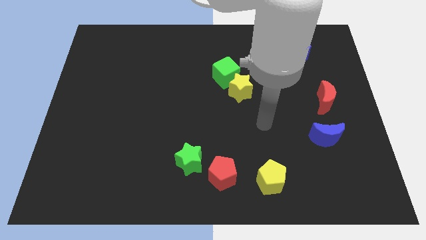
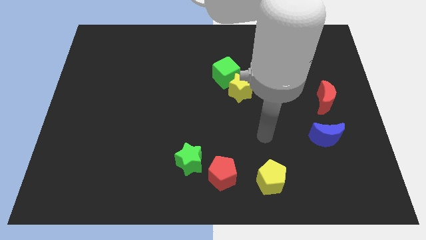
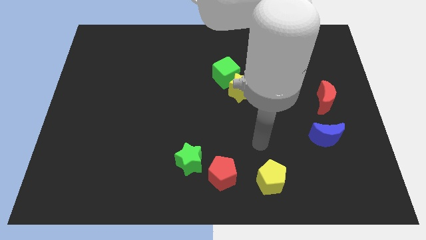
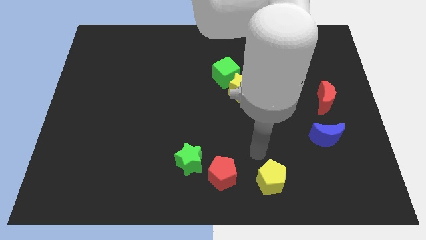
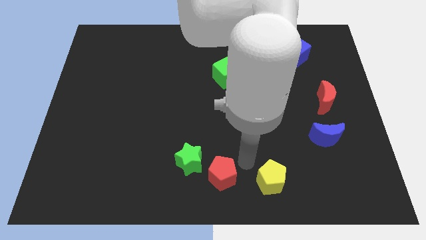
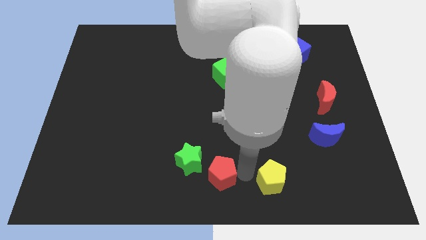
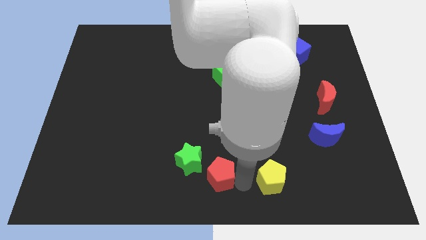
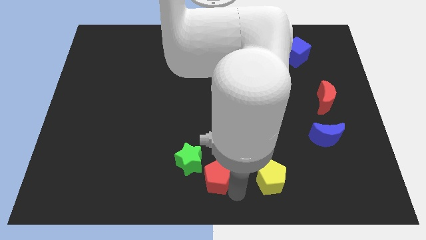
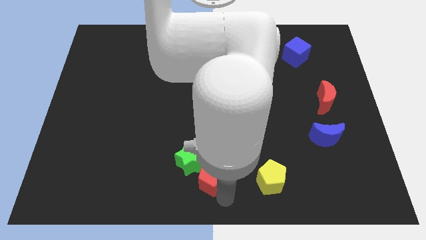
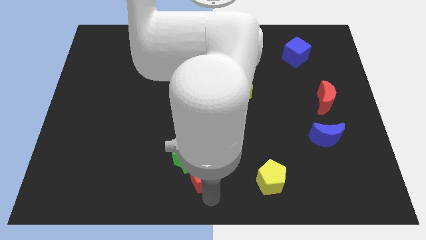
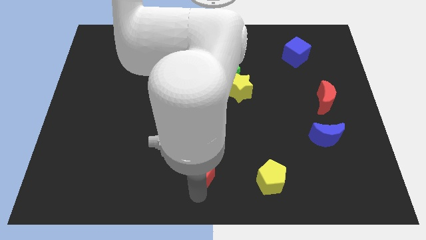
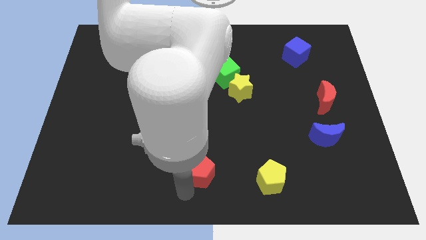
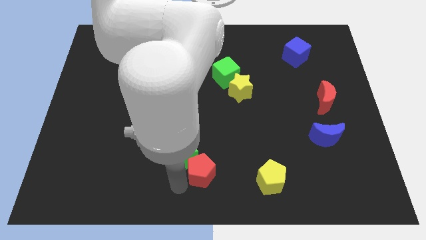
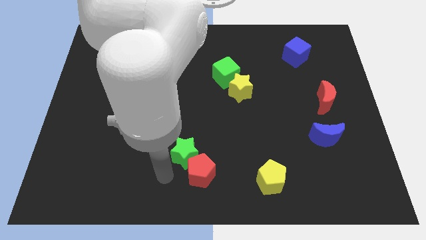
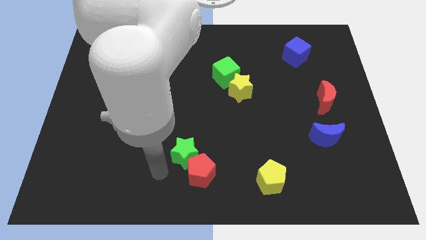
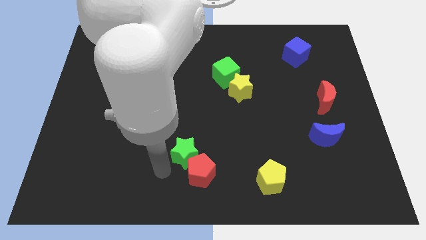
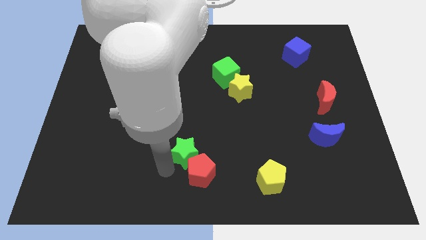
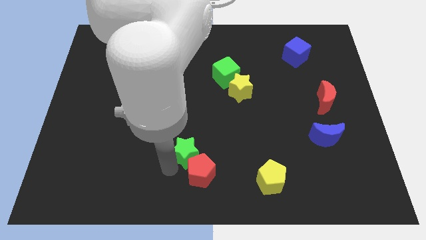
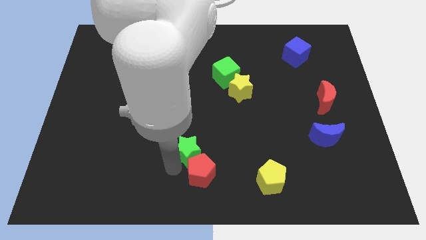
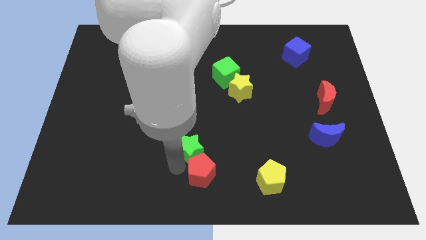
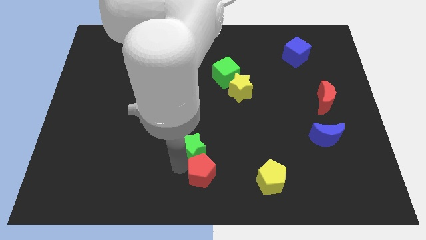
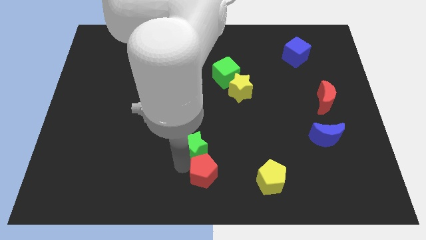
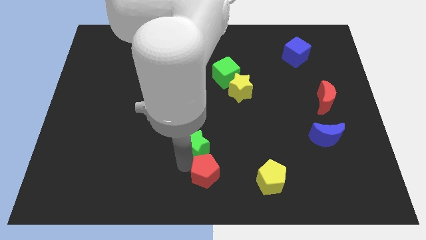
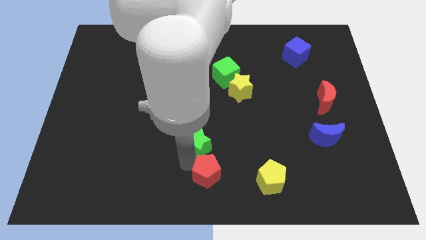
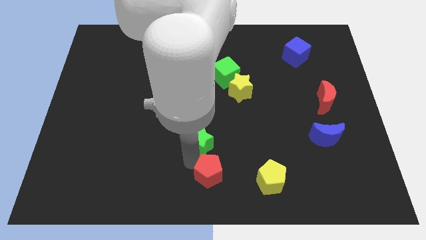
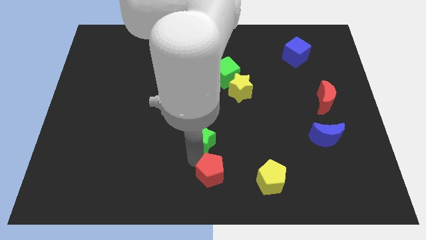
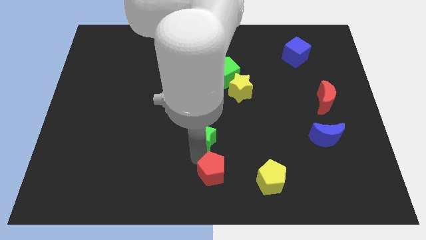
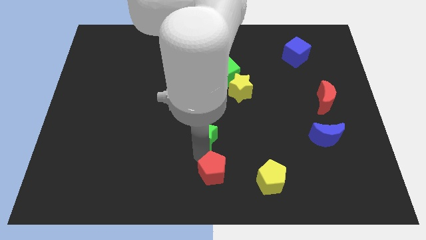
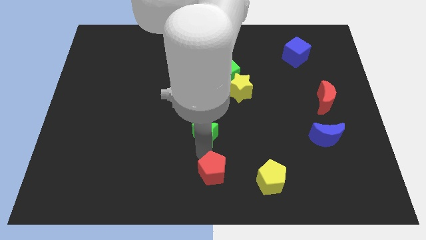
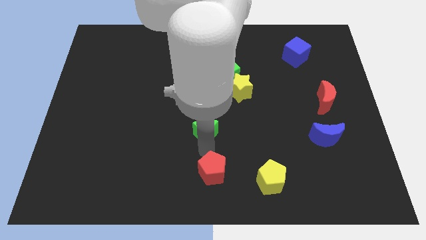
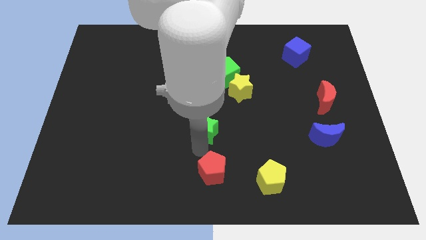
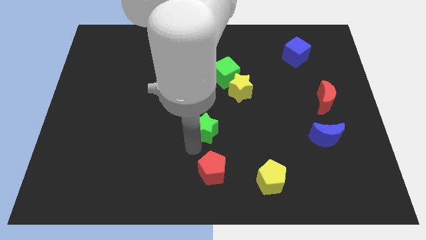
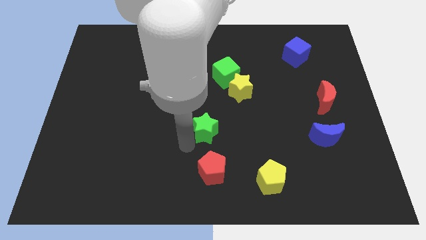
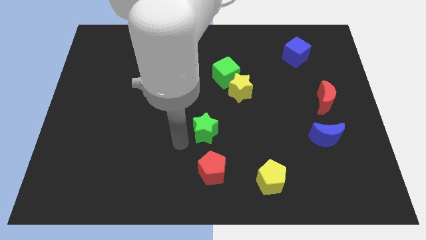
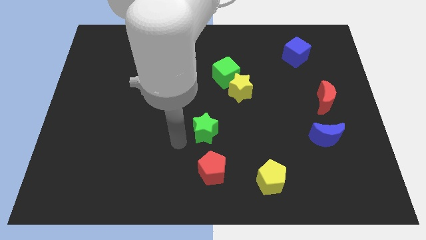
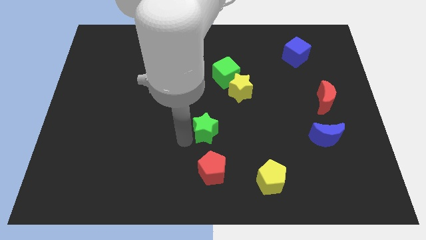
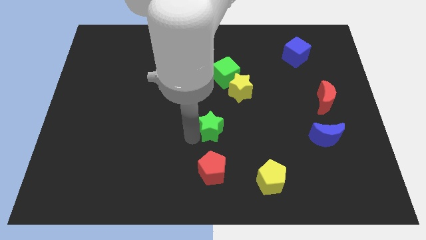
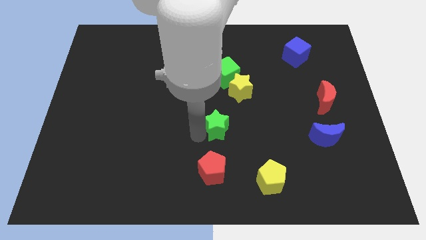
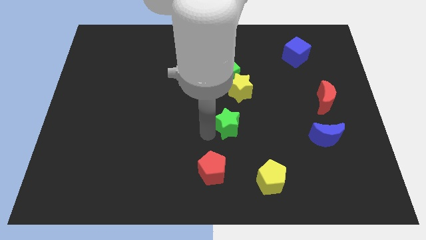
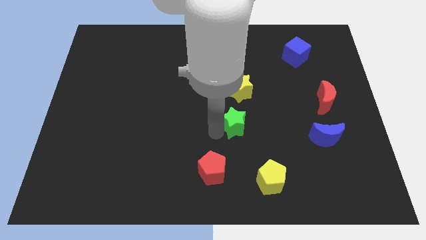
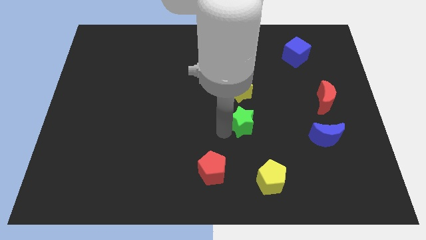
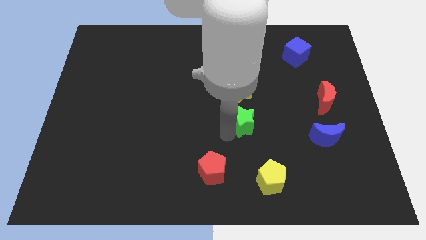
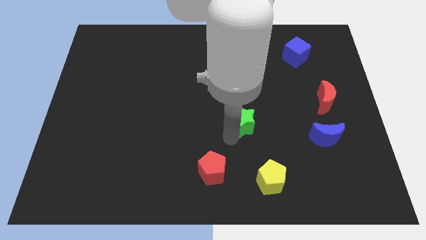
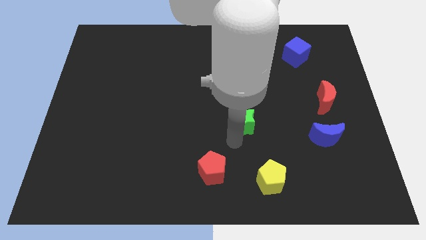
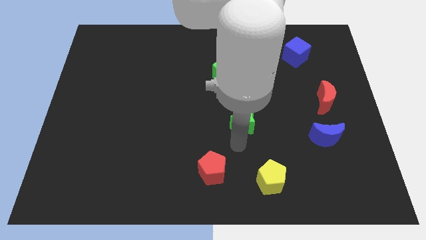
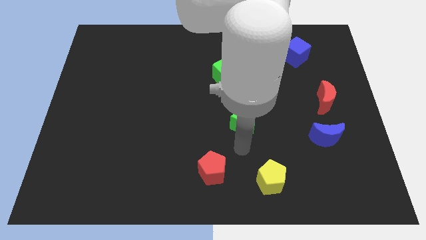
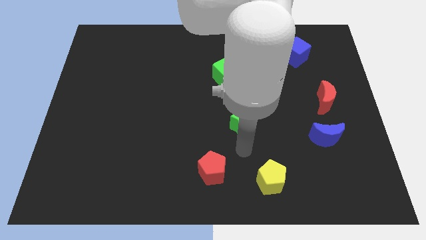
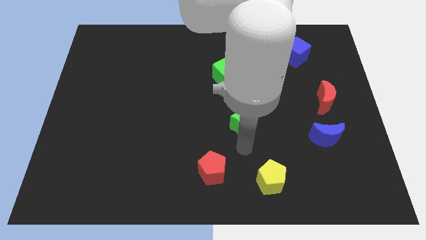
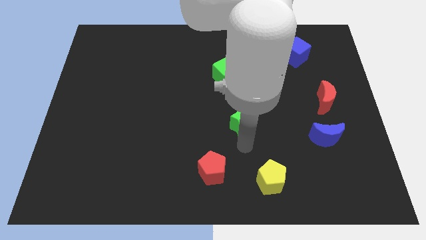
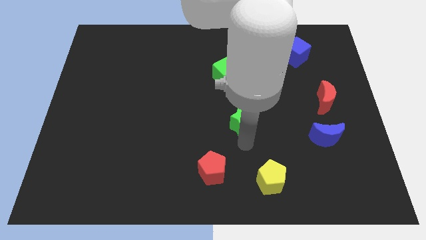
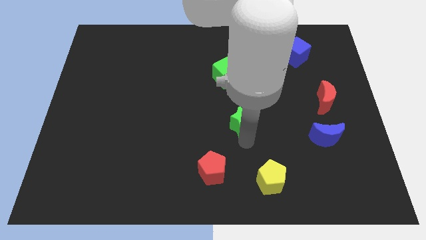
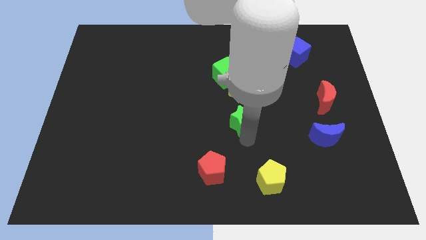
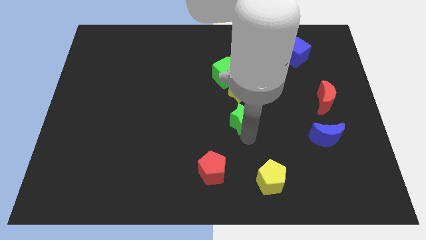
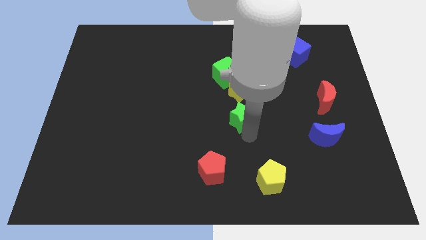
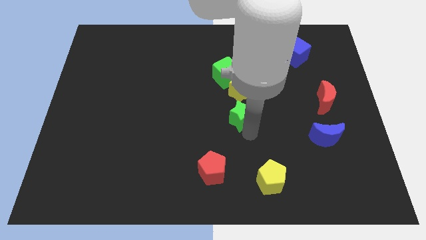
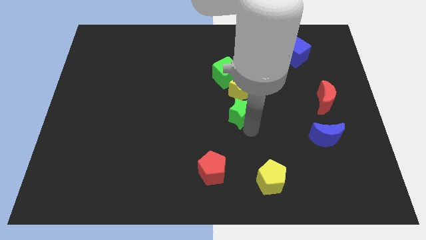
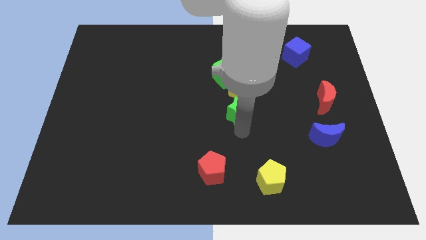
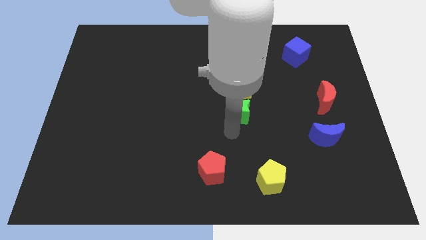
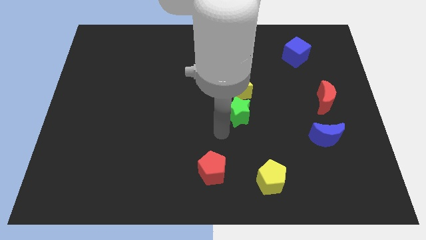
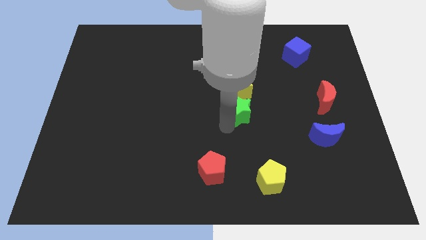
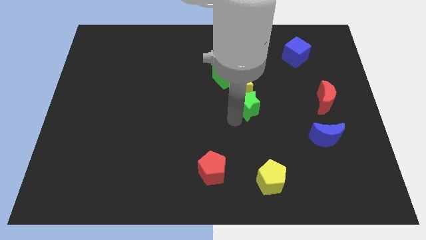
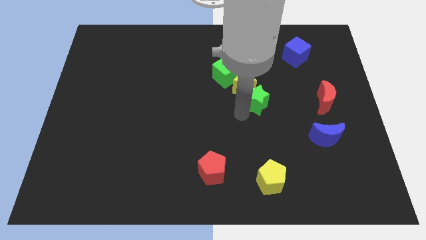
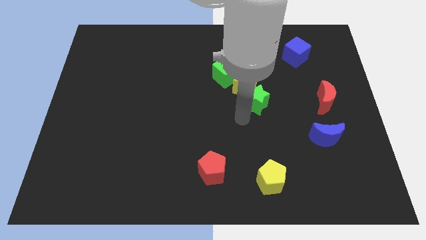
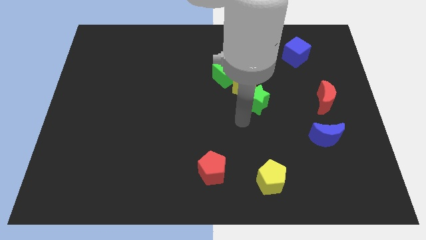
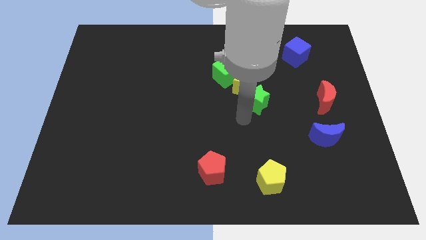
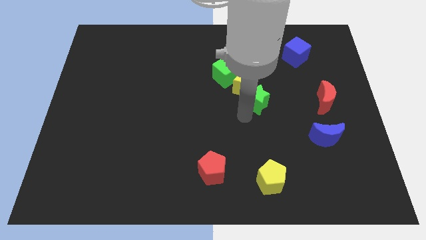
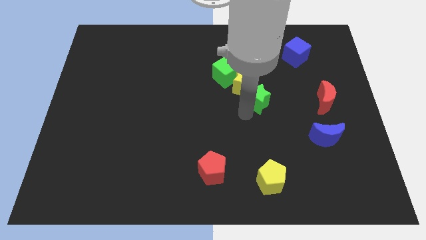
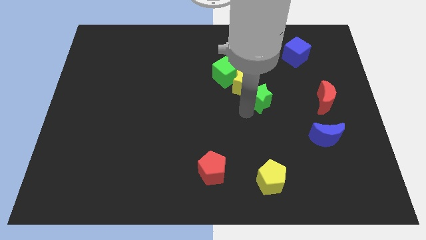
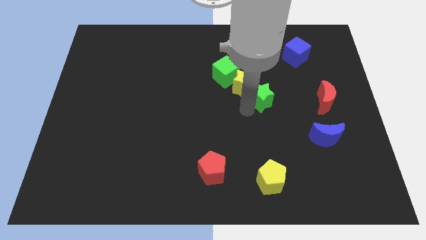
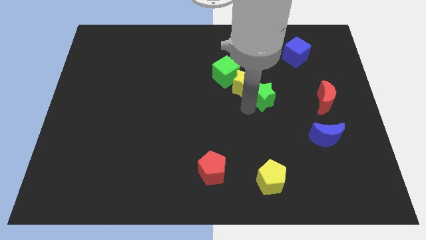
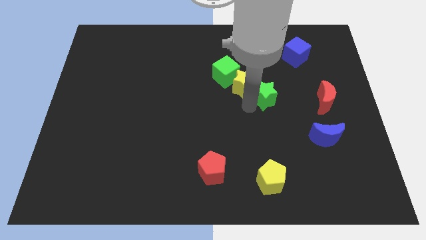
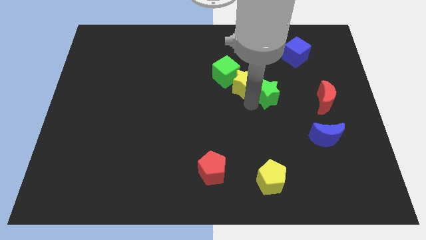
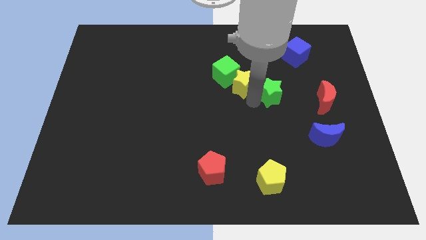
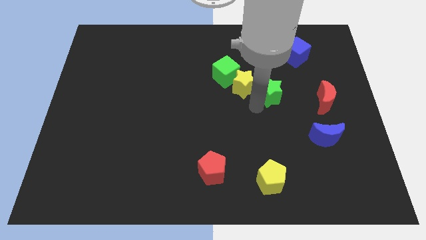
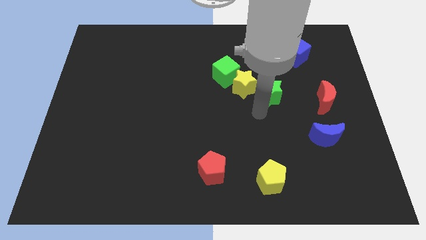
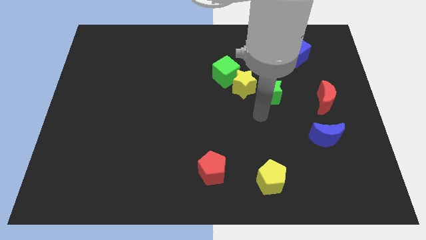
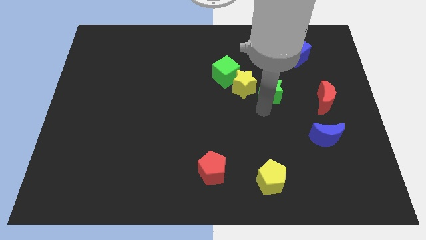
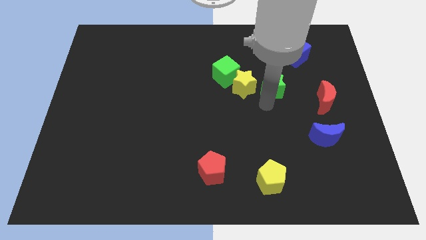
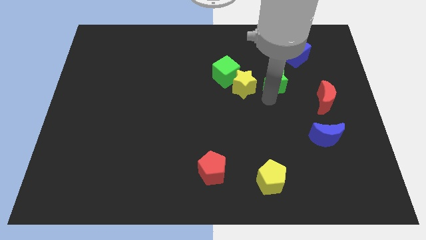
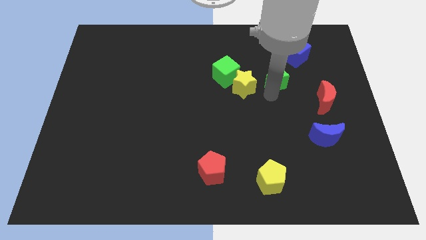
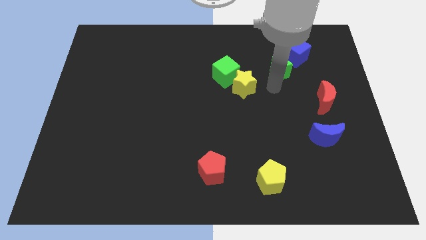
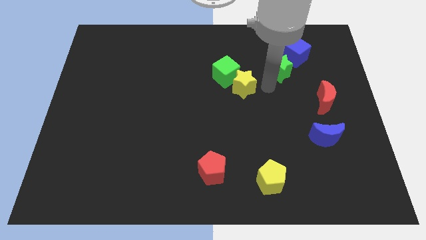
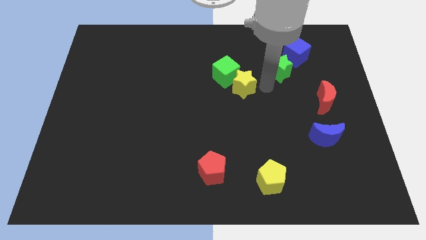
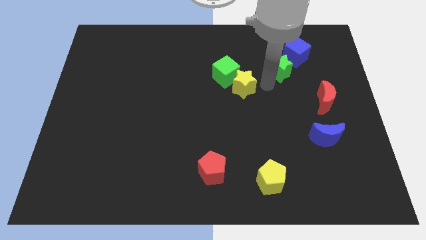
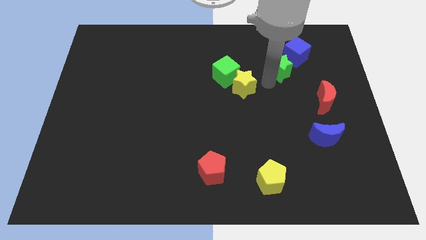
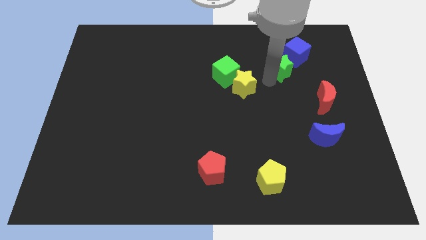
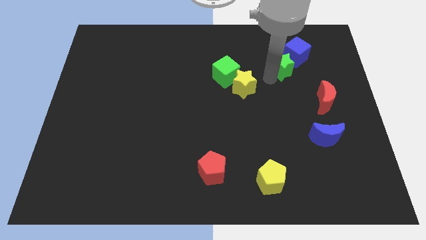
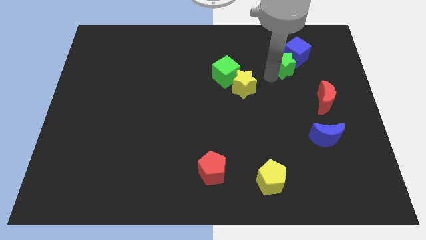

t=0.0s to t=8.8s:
move the green star close to the blue cube
